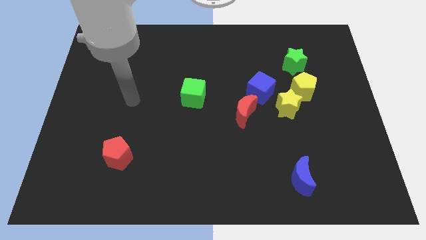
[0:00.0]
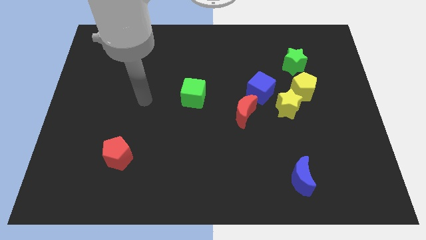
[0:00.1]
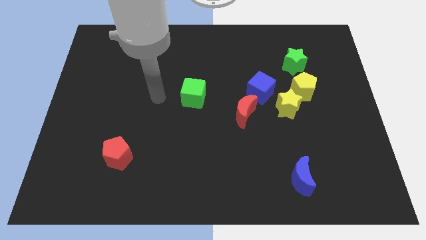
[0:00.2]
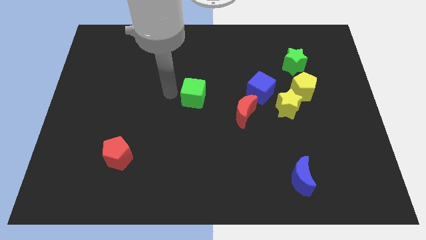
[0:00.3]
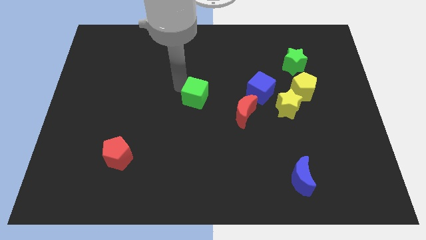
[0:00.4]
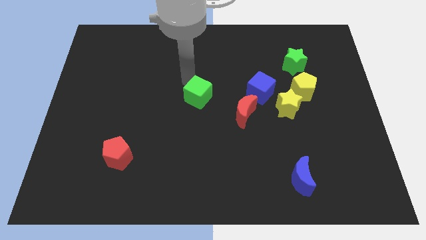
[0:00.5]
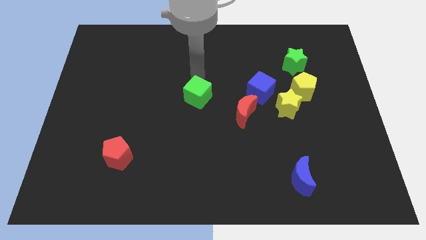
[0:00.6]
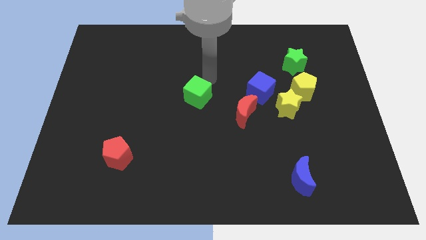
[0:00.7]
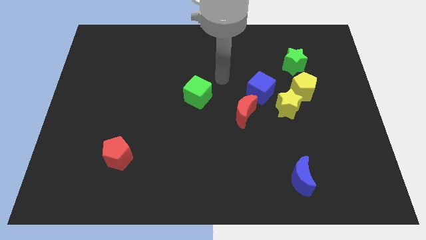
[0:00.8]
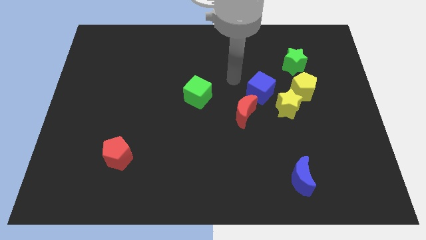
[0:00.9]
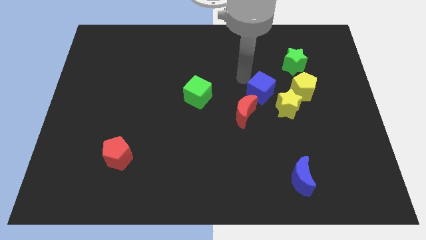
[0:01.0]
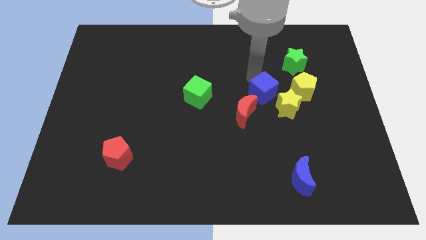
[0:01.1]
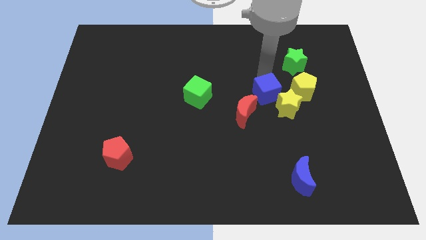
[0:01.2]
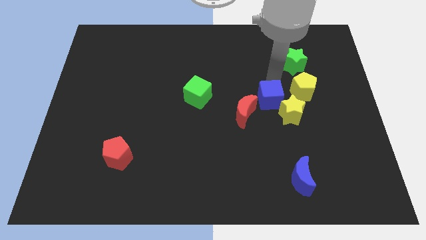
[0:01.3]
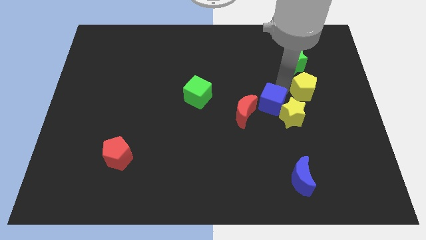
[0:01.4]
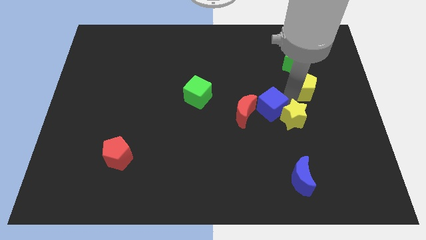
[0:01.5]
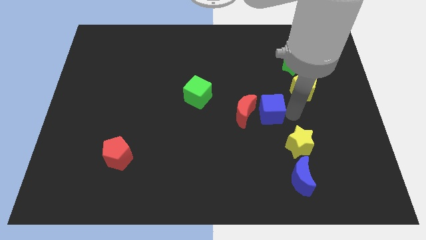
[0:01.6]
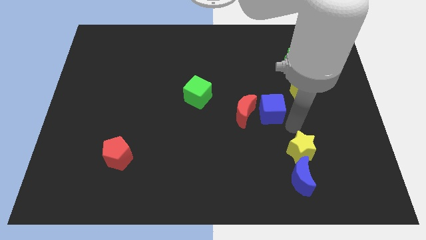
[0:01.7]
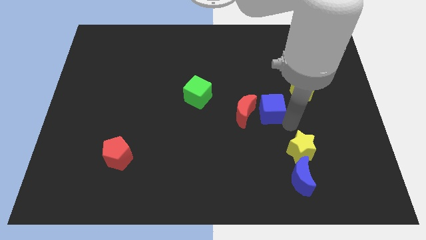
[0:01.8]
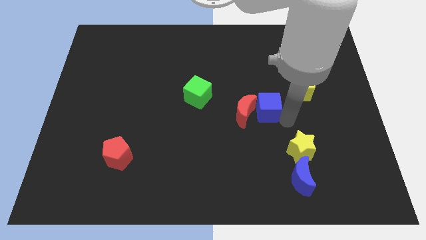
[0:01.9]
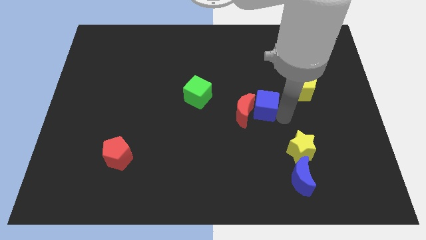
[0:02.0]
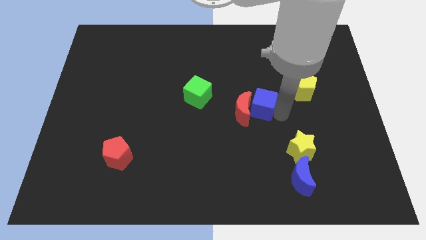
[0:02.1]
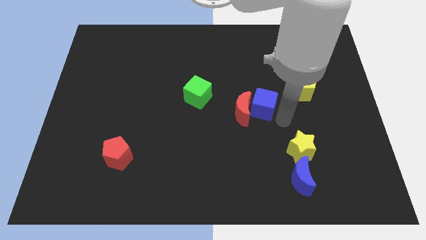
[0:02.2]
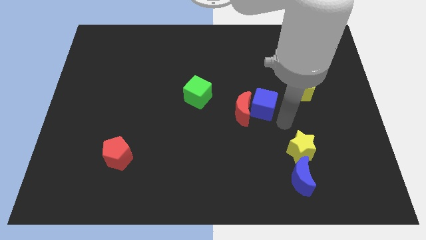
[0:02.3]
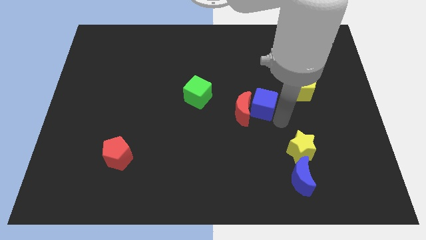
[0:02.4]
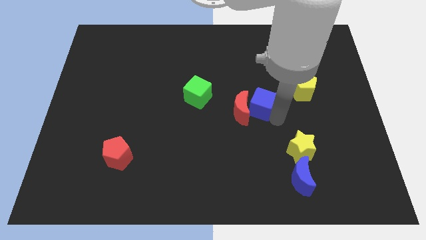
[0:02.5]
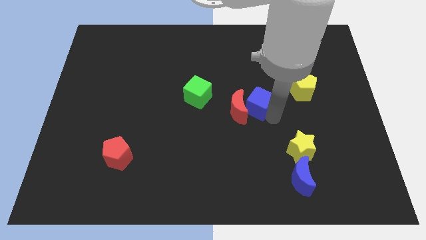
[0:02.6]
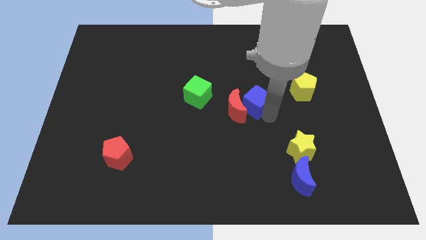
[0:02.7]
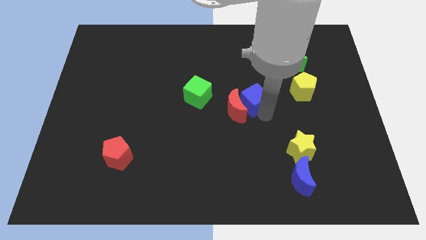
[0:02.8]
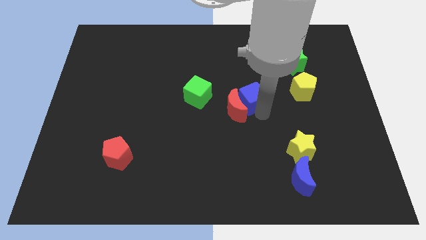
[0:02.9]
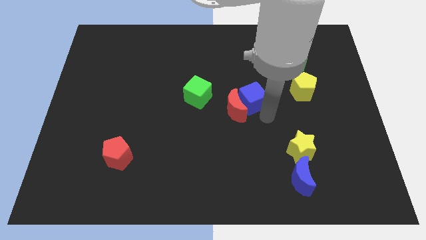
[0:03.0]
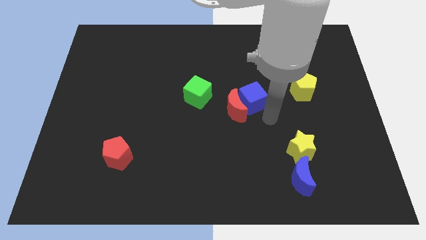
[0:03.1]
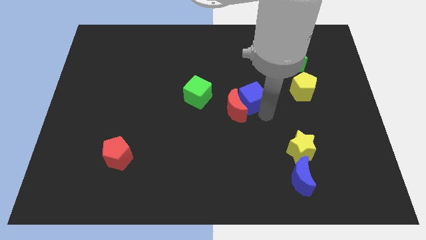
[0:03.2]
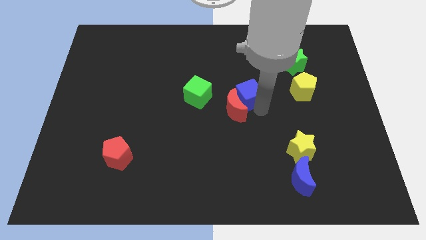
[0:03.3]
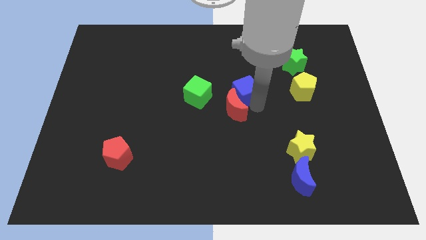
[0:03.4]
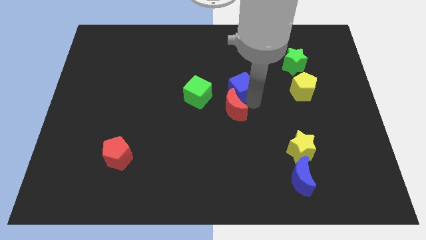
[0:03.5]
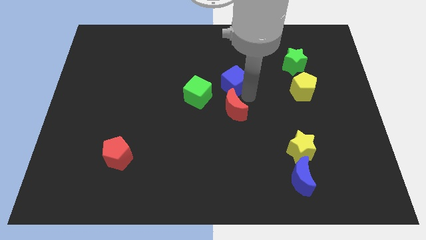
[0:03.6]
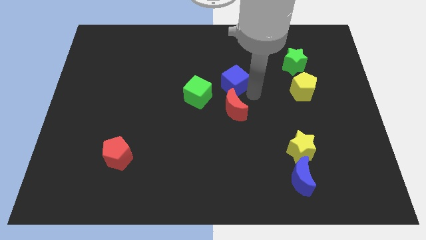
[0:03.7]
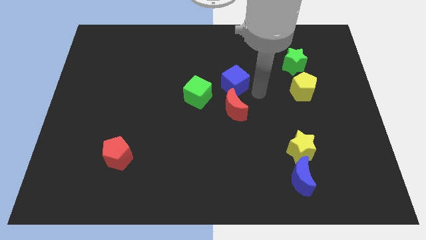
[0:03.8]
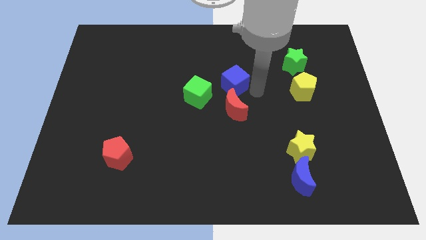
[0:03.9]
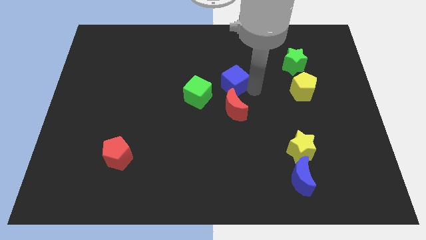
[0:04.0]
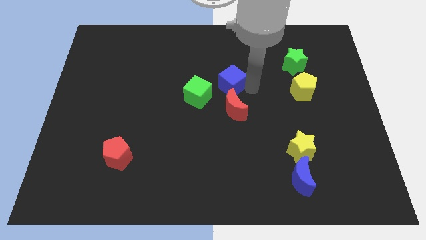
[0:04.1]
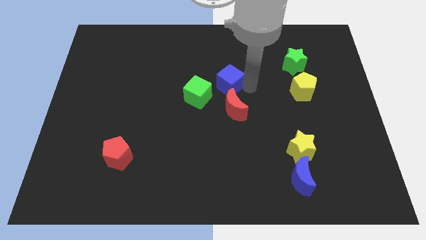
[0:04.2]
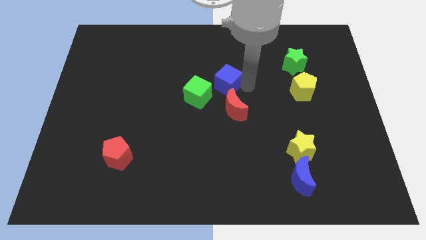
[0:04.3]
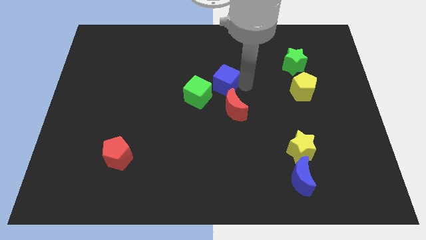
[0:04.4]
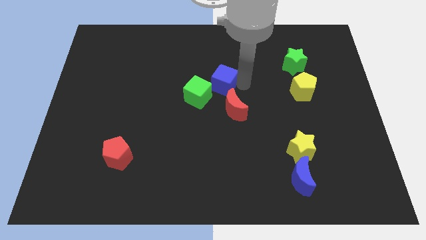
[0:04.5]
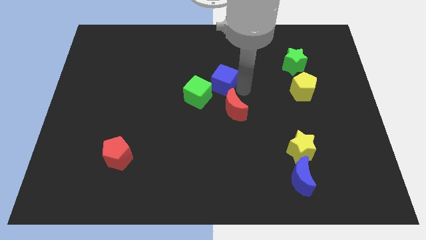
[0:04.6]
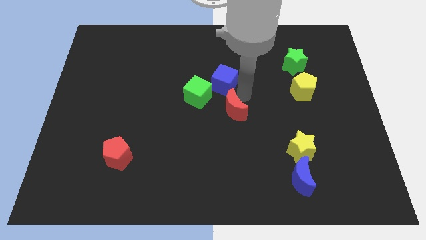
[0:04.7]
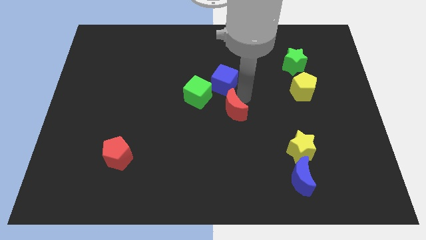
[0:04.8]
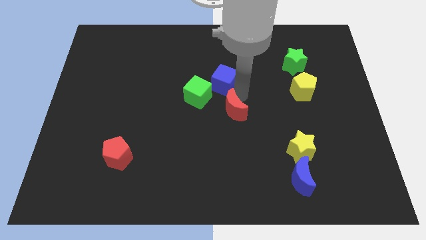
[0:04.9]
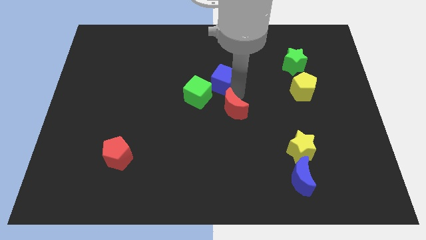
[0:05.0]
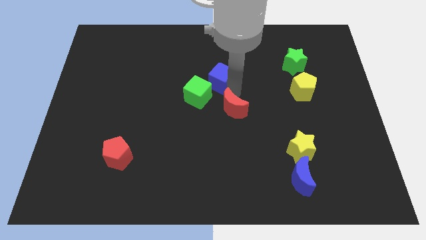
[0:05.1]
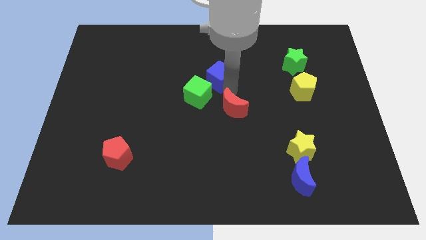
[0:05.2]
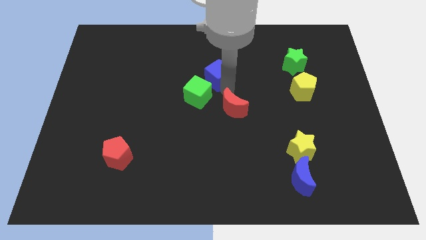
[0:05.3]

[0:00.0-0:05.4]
put the blue cube to the top of the green cube

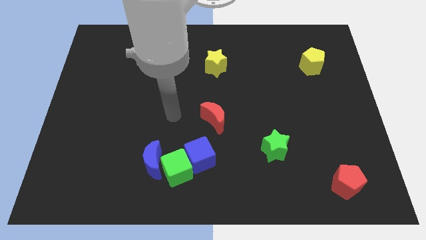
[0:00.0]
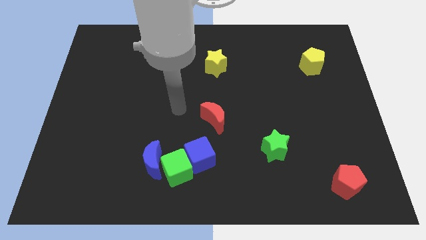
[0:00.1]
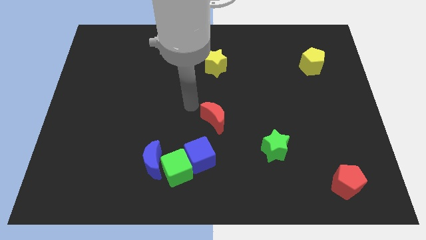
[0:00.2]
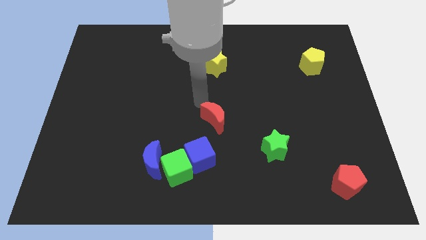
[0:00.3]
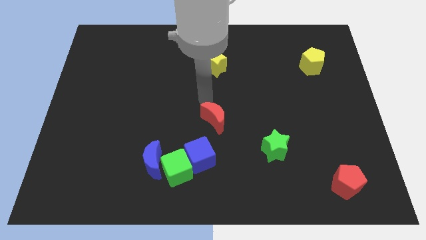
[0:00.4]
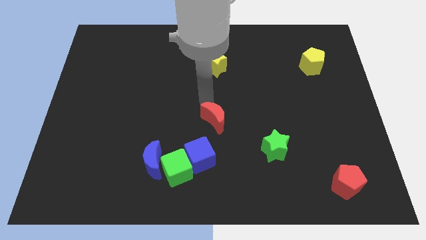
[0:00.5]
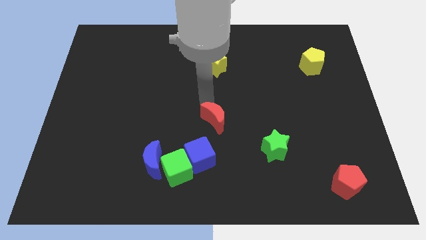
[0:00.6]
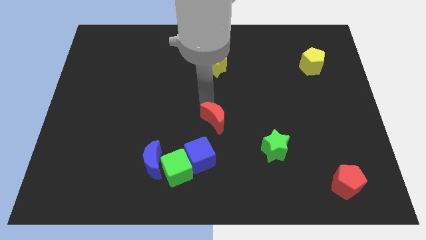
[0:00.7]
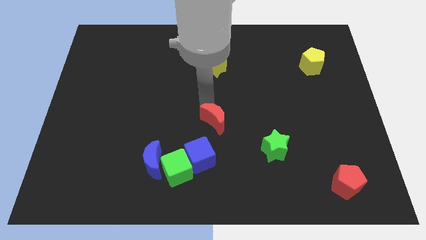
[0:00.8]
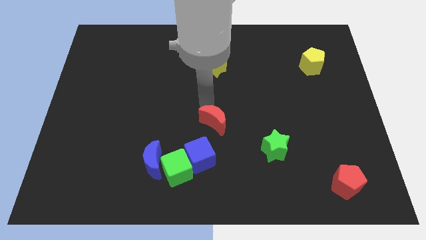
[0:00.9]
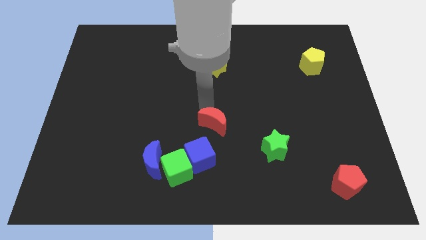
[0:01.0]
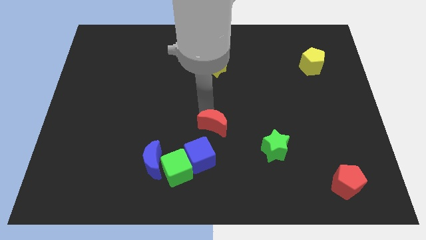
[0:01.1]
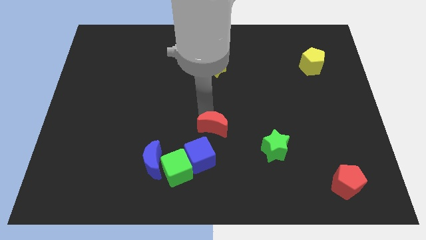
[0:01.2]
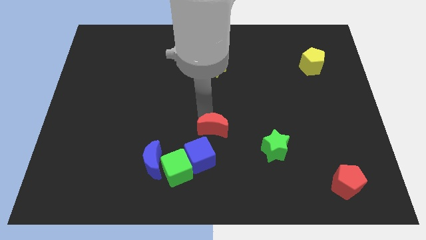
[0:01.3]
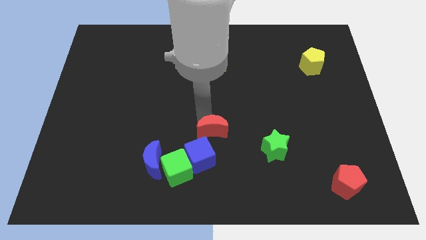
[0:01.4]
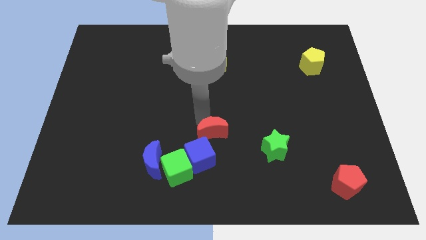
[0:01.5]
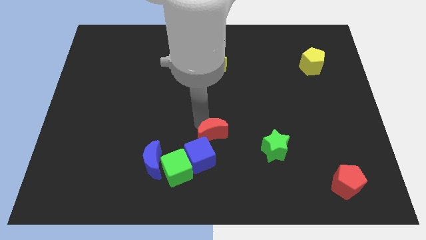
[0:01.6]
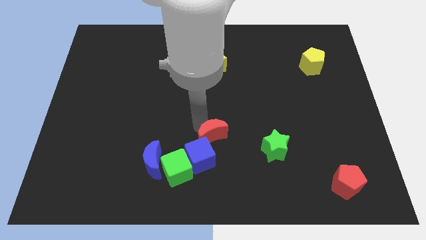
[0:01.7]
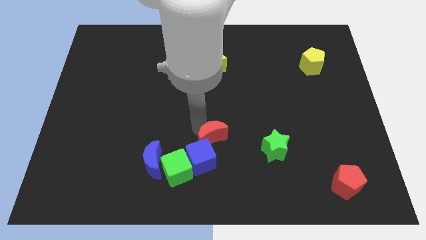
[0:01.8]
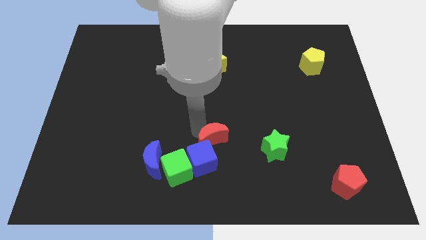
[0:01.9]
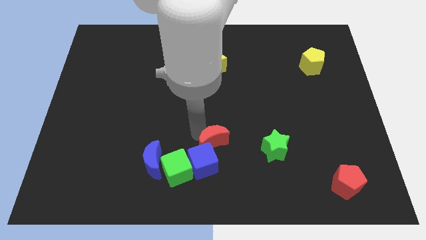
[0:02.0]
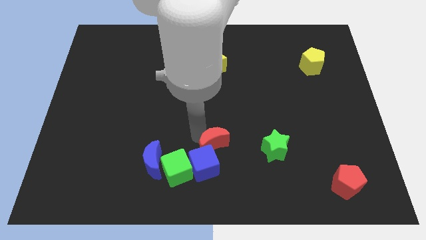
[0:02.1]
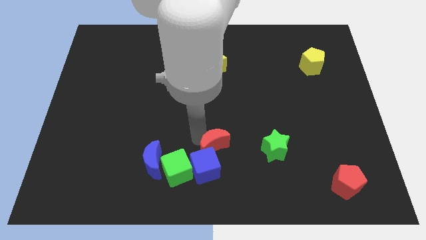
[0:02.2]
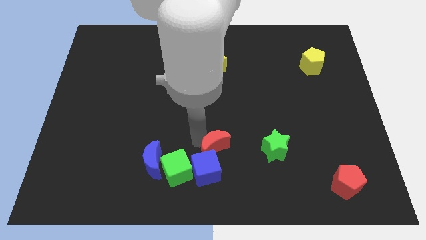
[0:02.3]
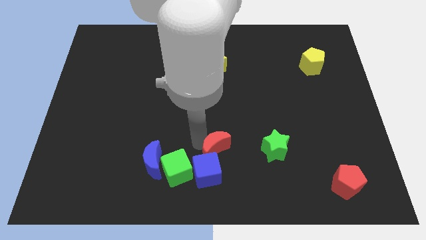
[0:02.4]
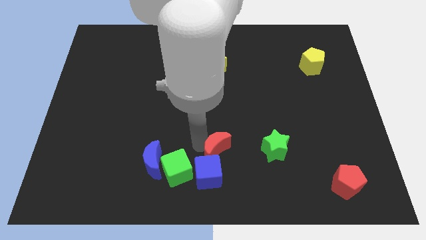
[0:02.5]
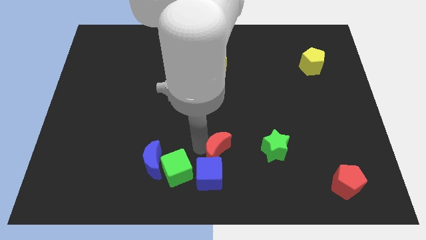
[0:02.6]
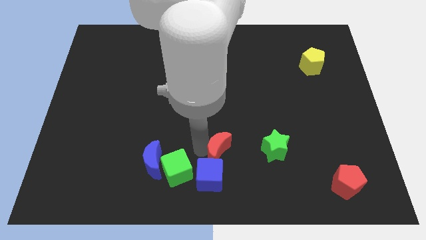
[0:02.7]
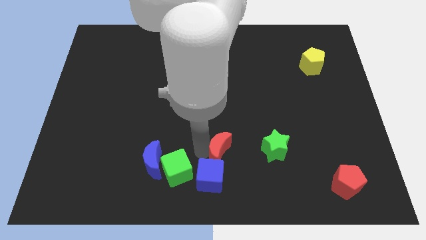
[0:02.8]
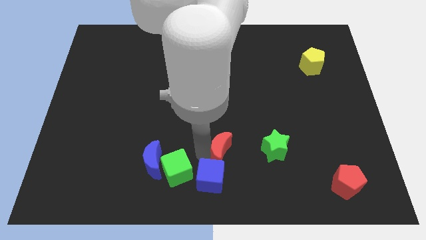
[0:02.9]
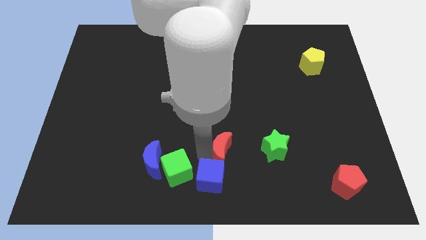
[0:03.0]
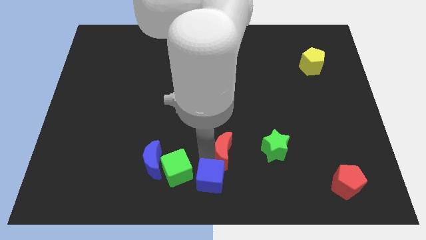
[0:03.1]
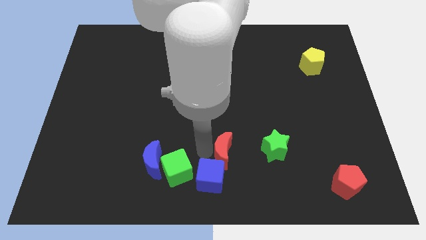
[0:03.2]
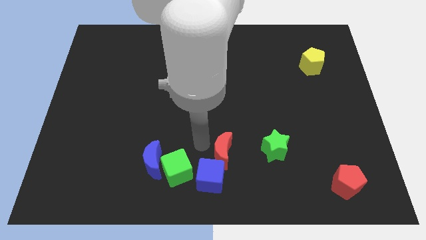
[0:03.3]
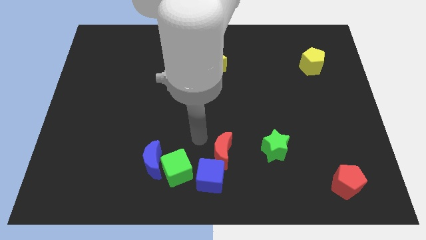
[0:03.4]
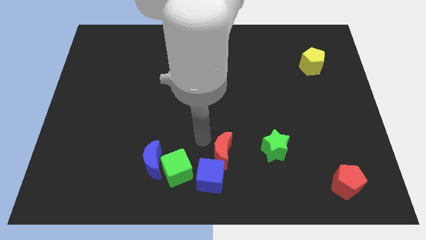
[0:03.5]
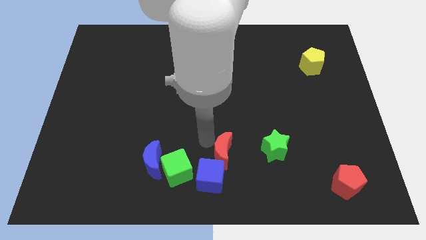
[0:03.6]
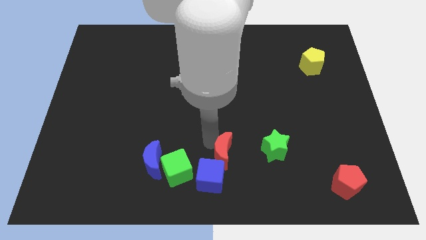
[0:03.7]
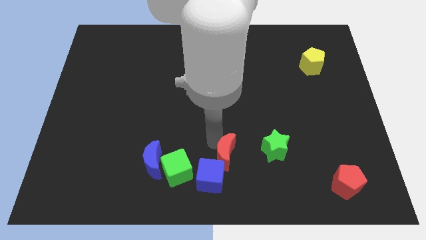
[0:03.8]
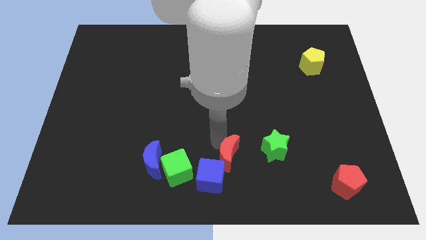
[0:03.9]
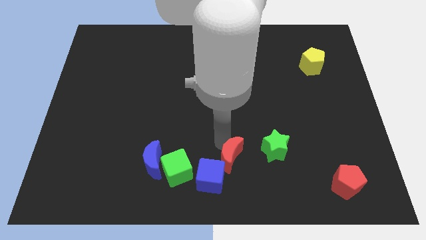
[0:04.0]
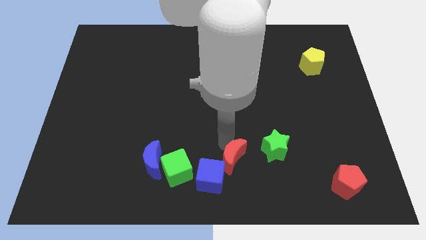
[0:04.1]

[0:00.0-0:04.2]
push the red moon to the right side of the blue cube
